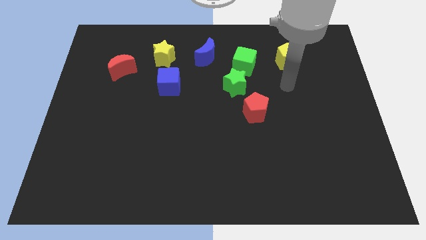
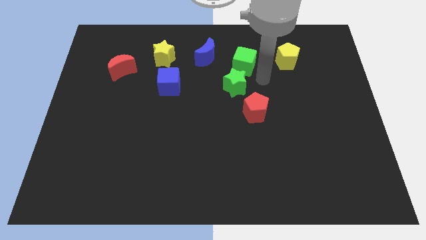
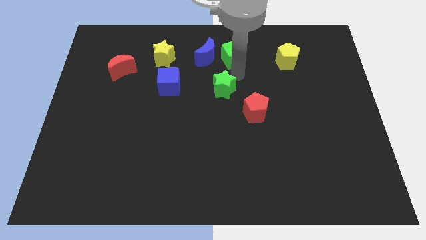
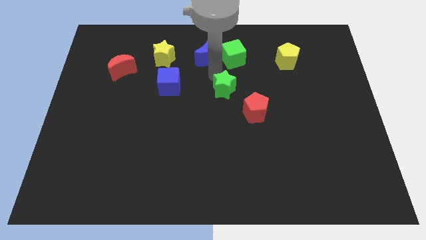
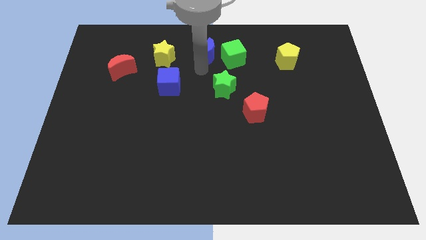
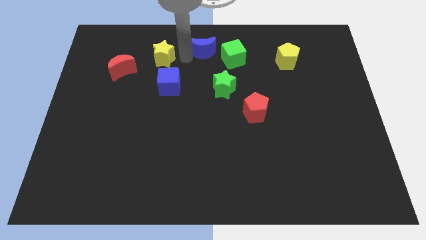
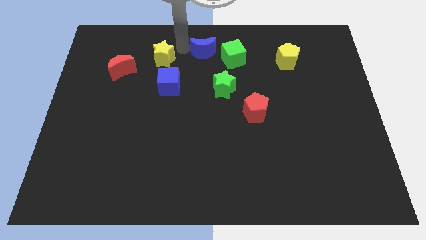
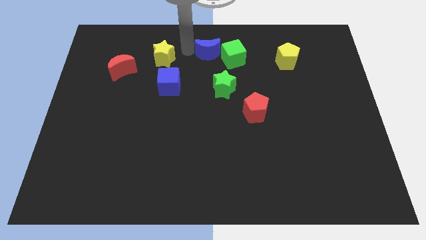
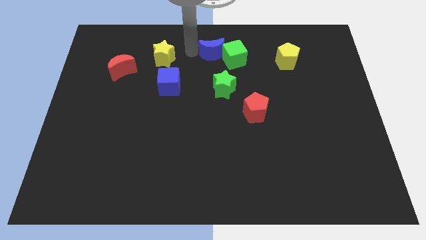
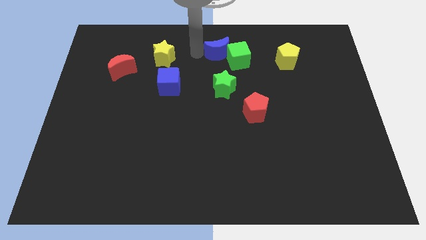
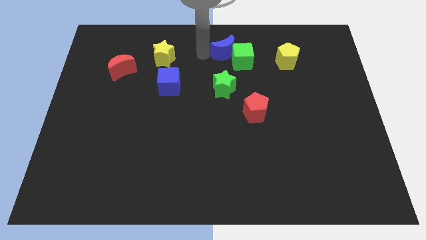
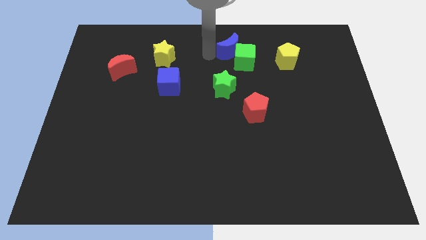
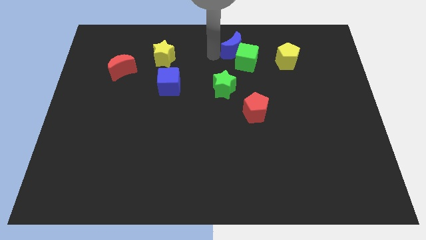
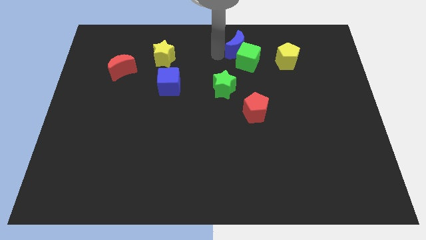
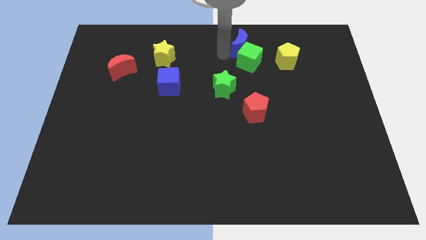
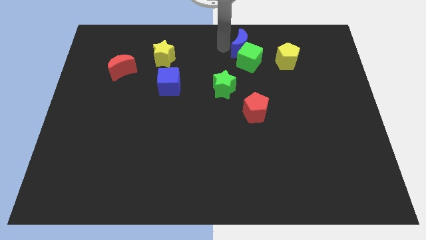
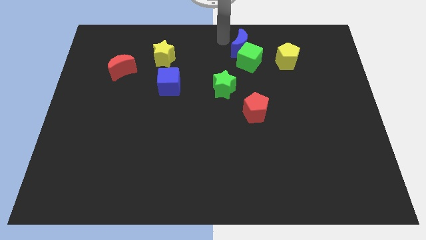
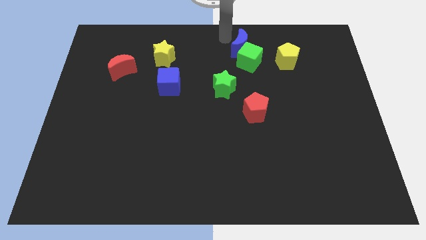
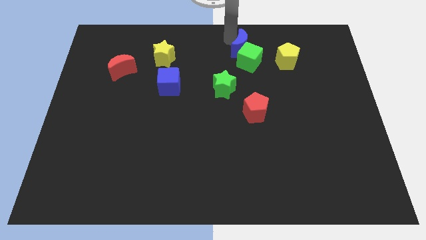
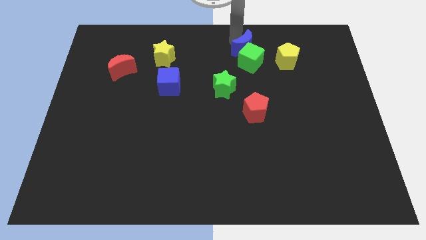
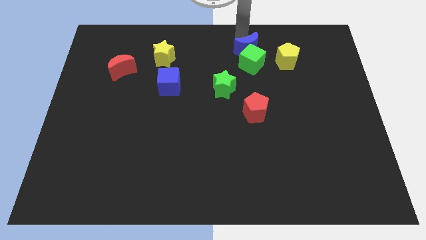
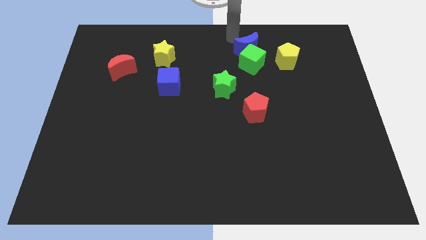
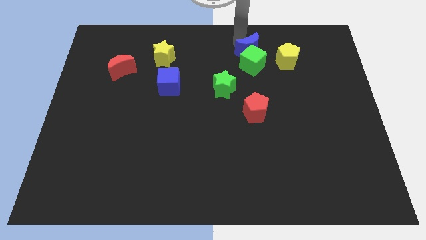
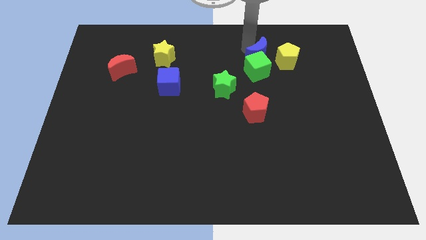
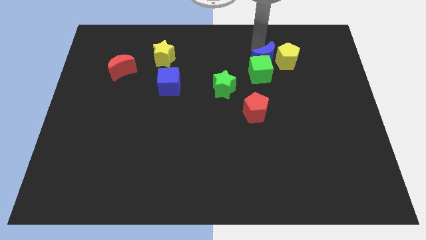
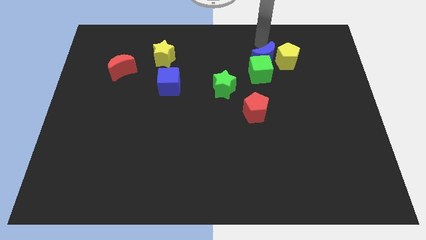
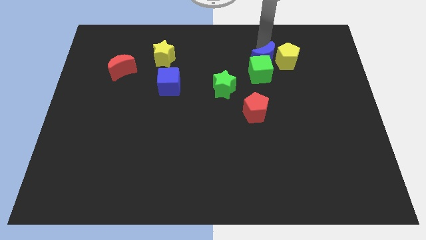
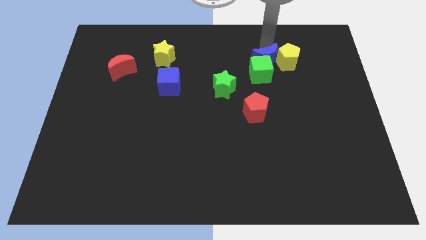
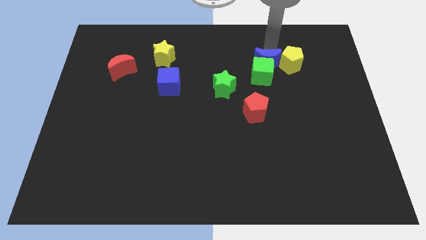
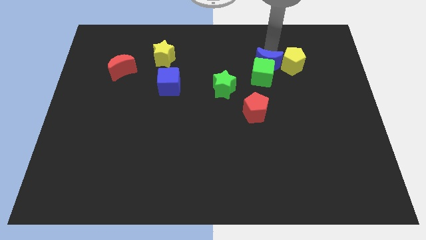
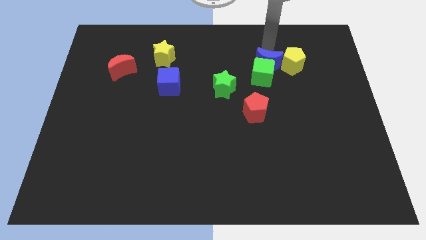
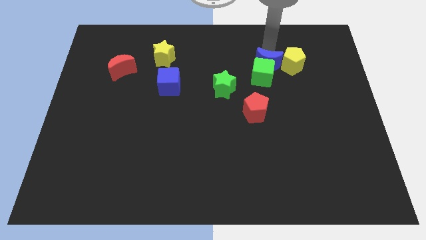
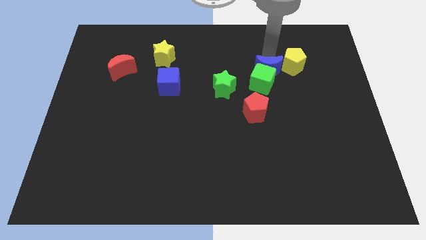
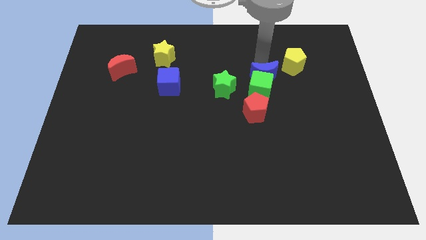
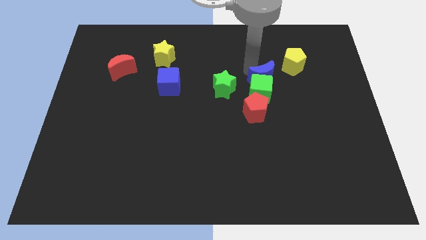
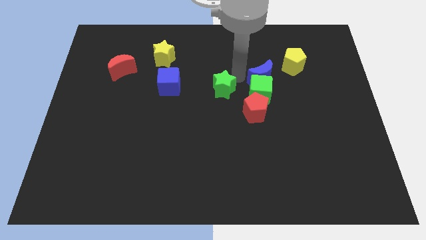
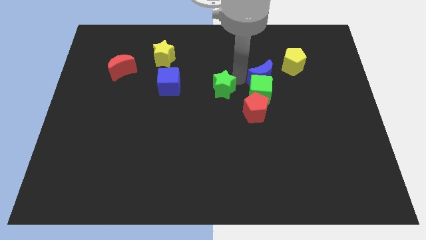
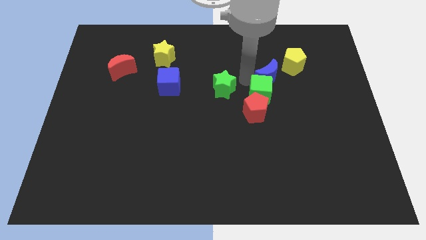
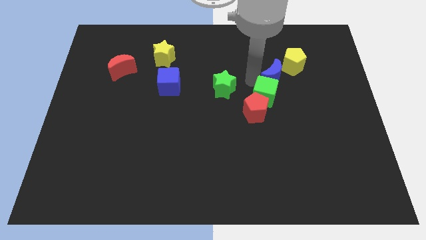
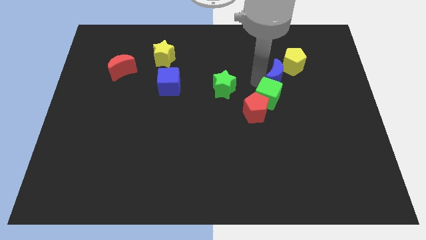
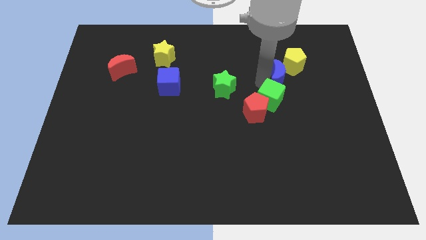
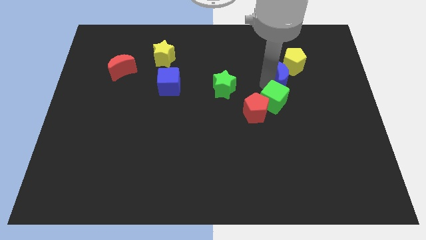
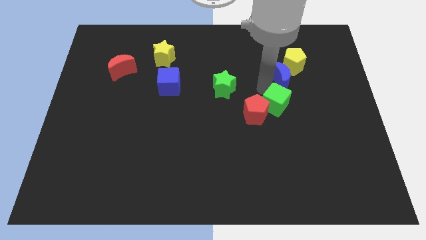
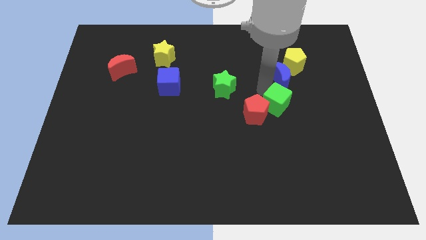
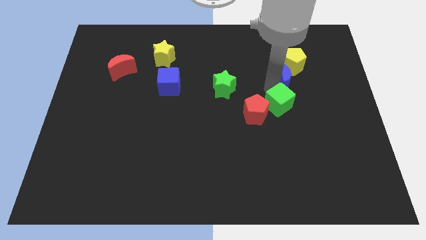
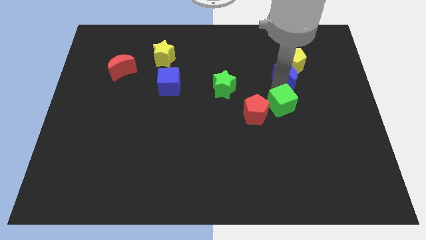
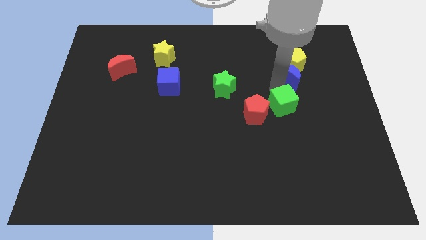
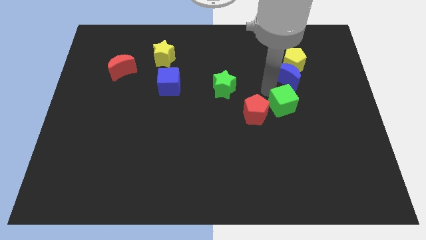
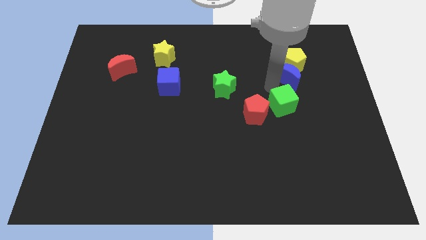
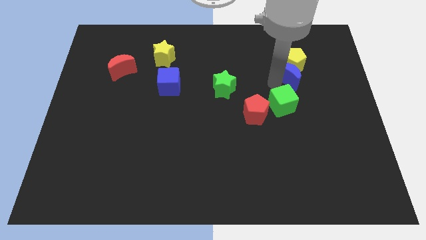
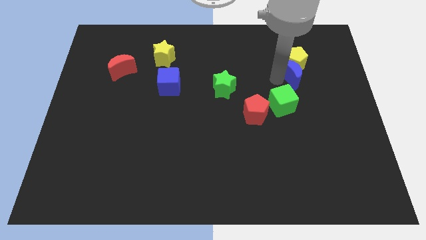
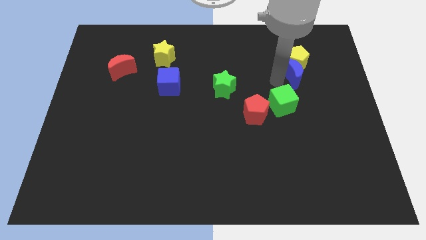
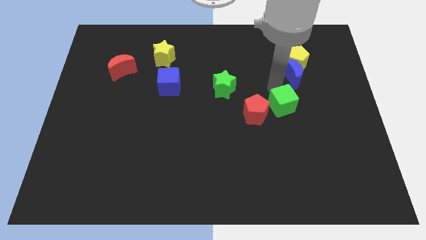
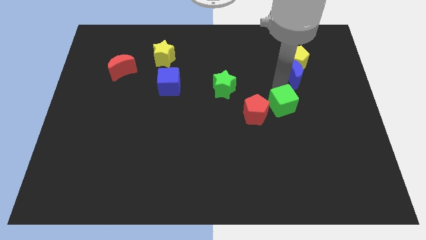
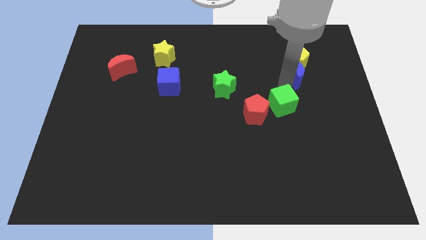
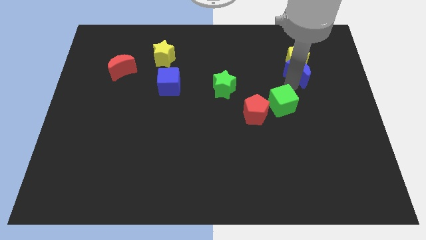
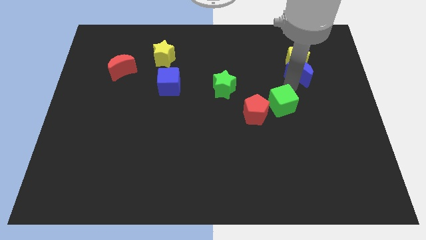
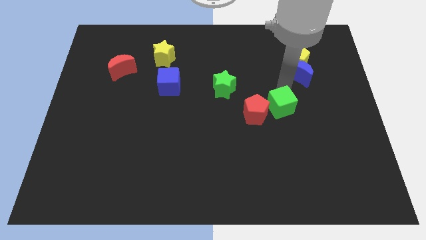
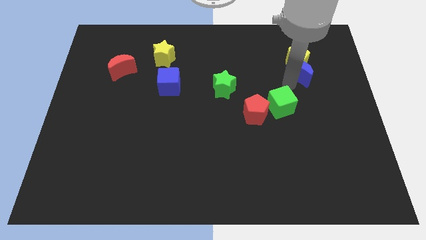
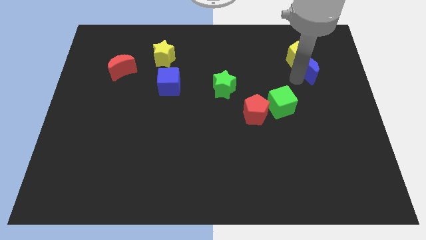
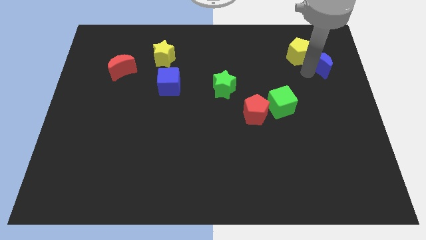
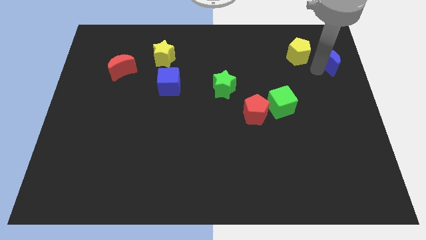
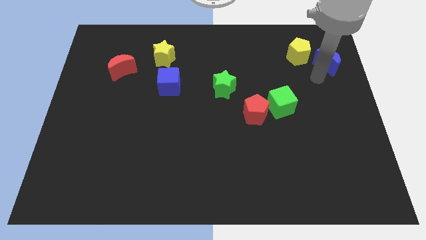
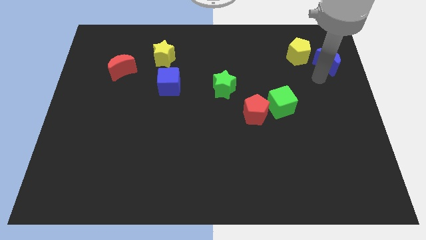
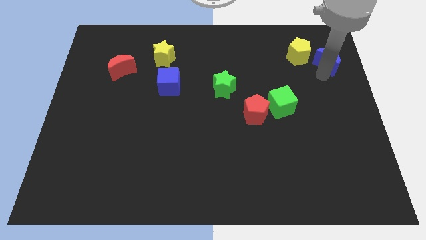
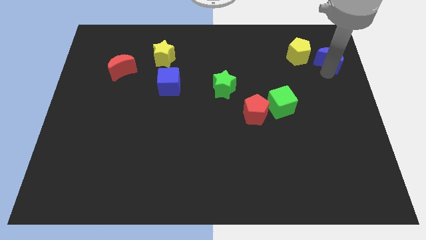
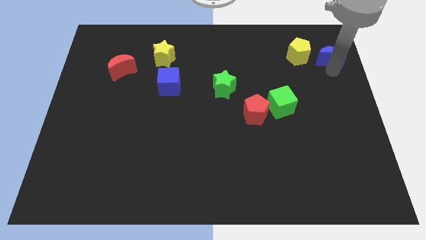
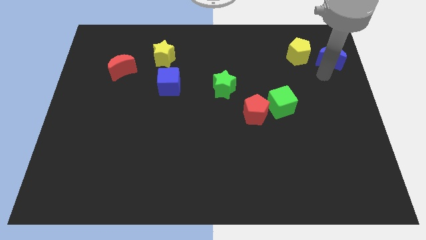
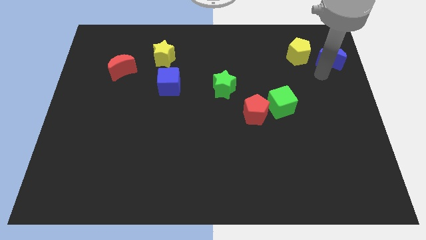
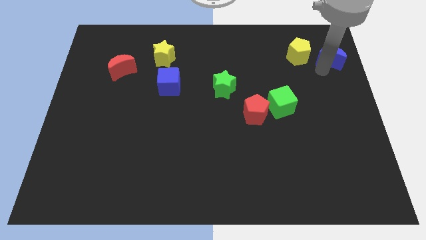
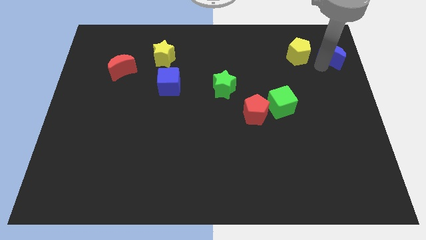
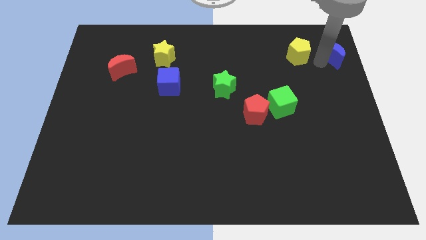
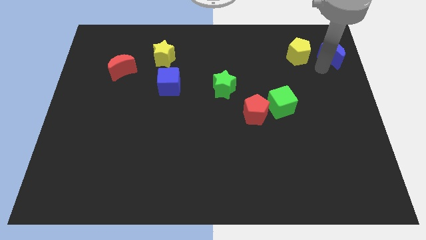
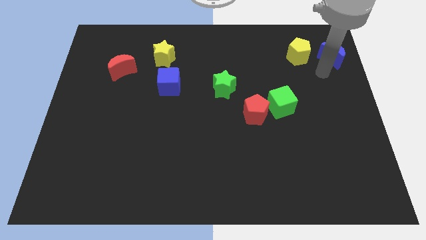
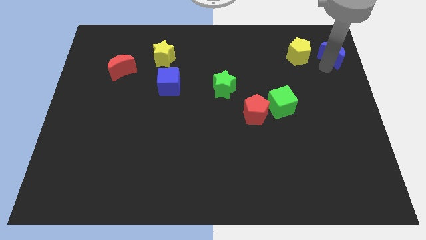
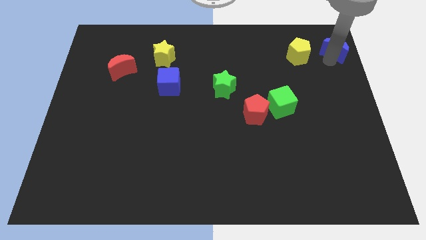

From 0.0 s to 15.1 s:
put the blue moon to the top right
